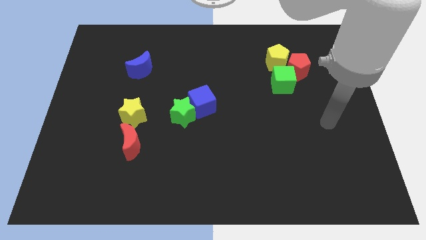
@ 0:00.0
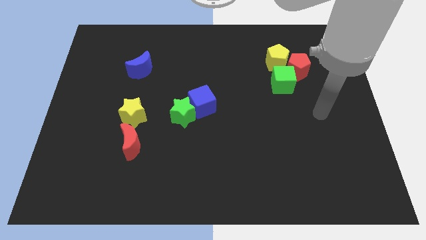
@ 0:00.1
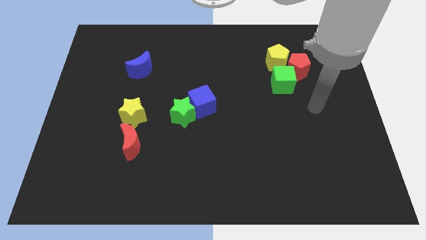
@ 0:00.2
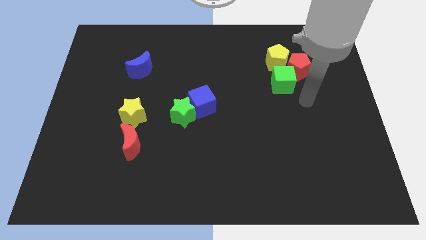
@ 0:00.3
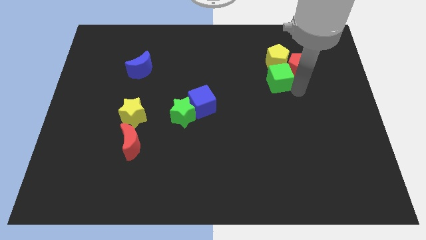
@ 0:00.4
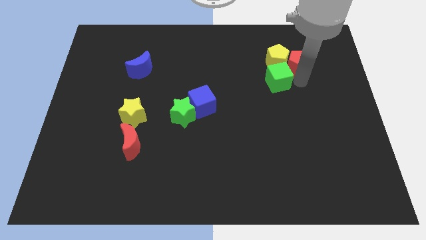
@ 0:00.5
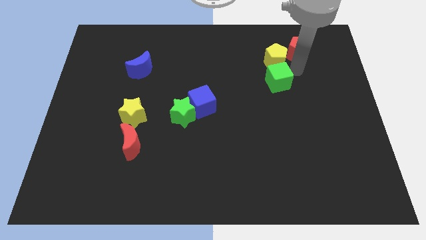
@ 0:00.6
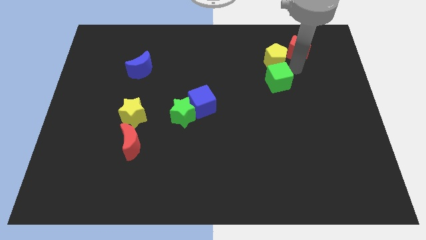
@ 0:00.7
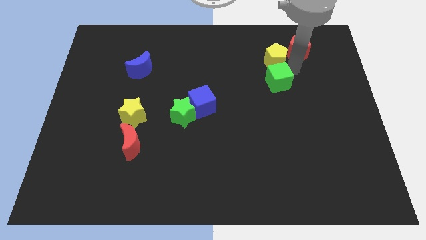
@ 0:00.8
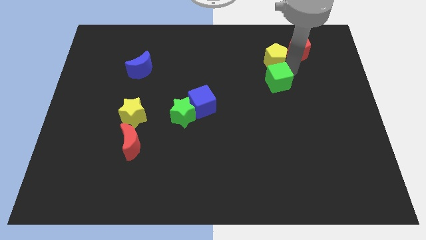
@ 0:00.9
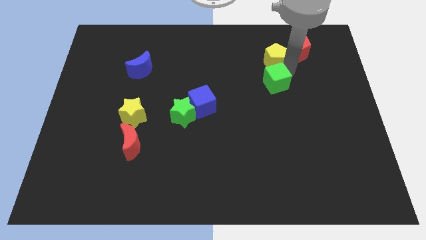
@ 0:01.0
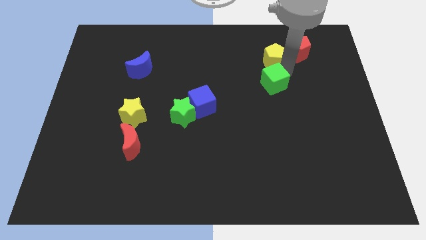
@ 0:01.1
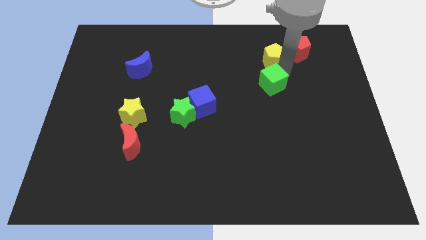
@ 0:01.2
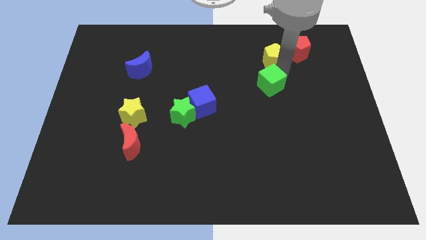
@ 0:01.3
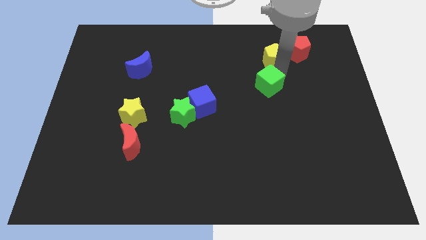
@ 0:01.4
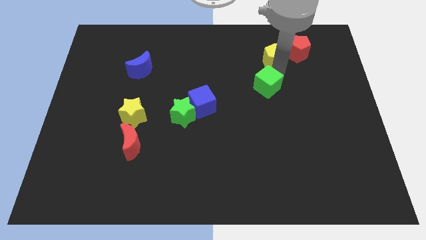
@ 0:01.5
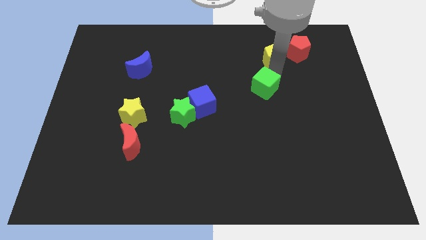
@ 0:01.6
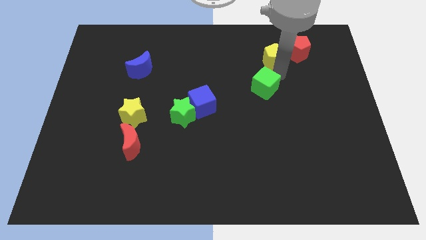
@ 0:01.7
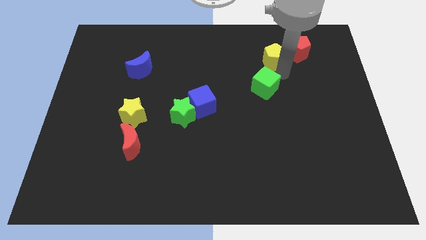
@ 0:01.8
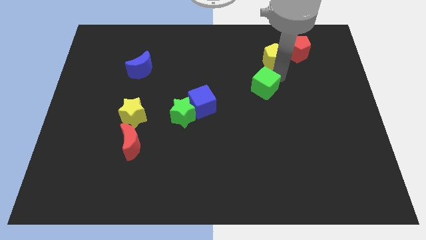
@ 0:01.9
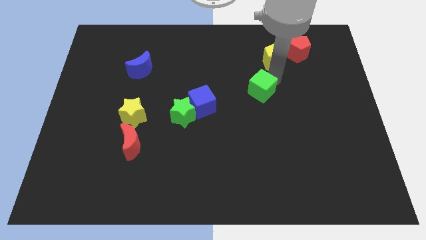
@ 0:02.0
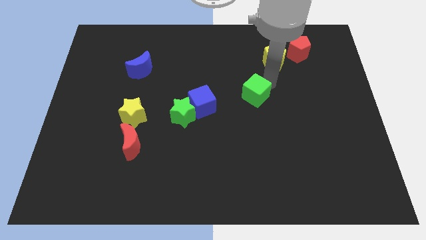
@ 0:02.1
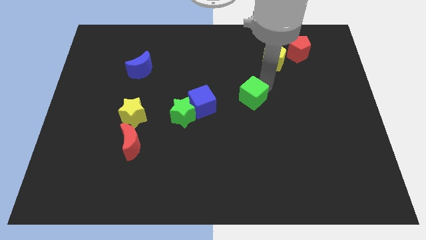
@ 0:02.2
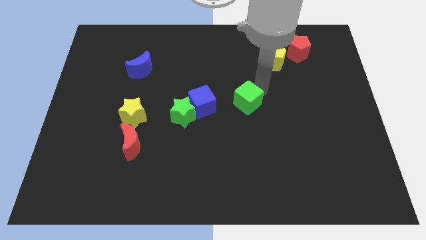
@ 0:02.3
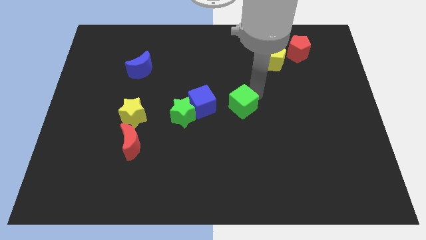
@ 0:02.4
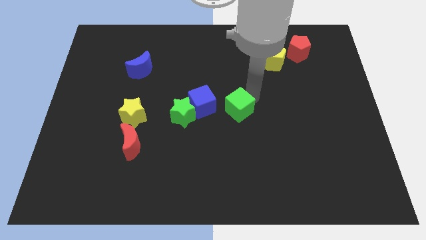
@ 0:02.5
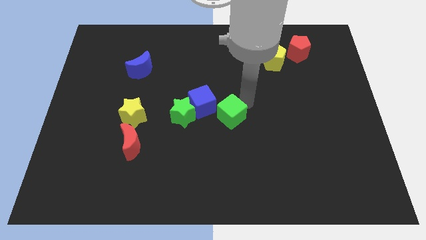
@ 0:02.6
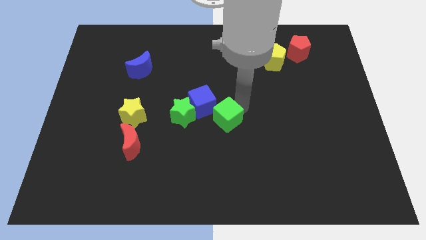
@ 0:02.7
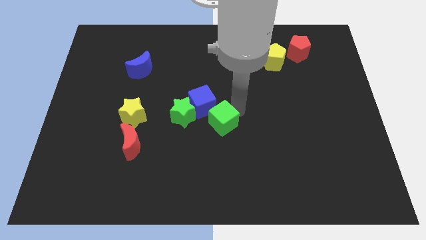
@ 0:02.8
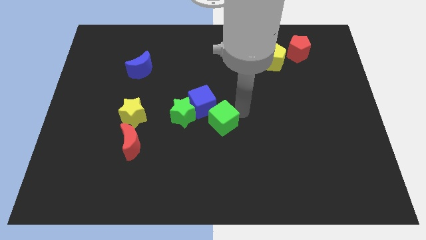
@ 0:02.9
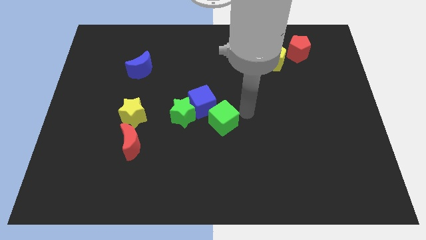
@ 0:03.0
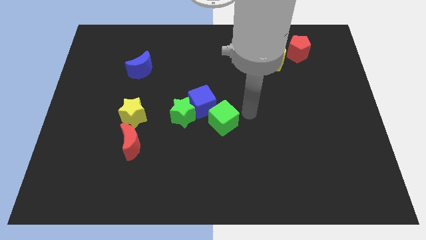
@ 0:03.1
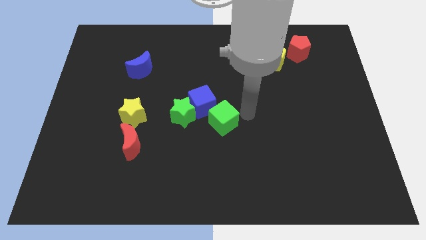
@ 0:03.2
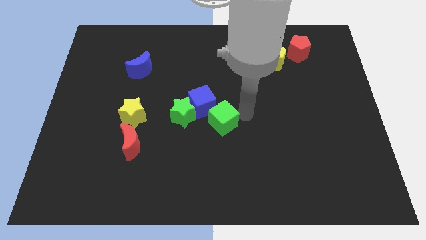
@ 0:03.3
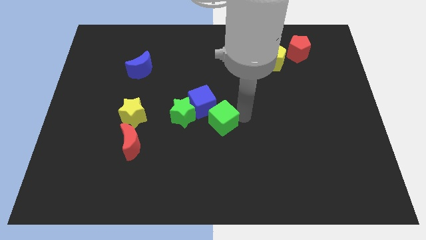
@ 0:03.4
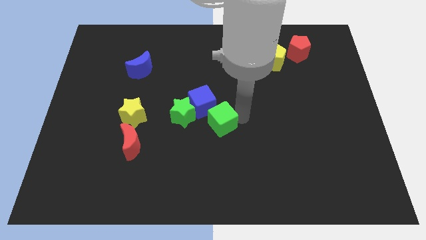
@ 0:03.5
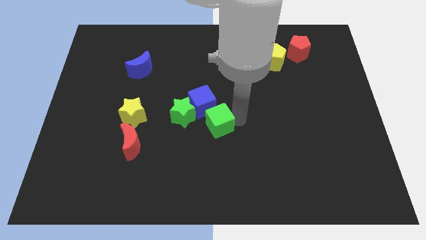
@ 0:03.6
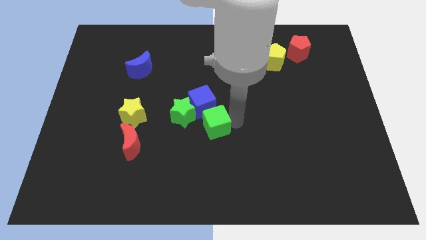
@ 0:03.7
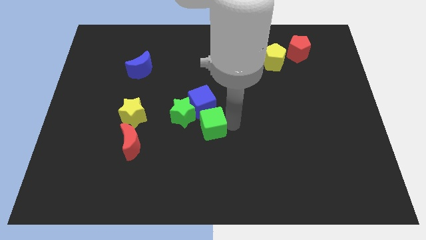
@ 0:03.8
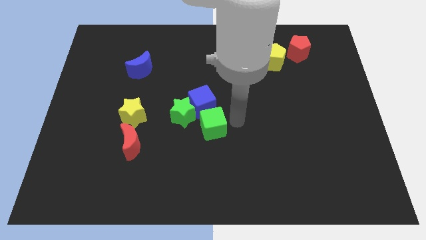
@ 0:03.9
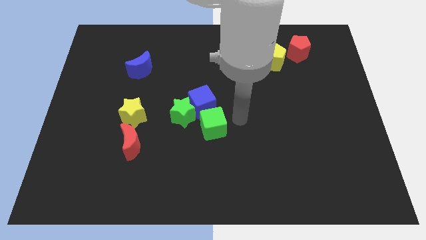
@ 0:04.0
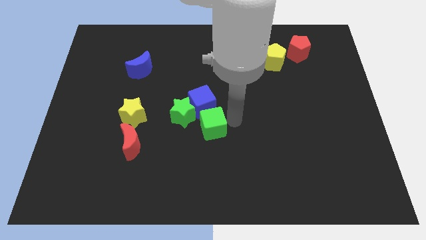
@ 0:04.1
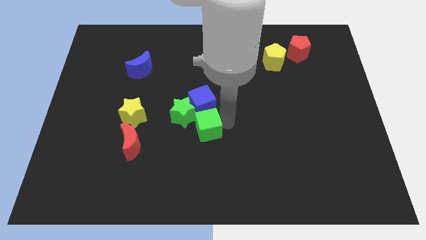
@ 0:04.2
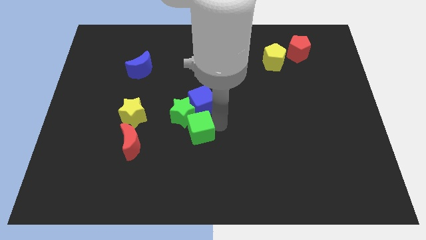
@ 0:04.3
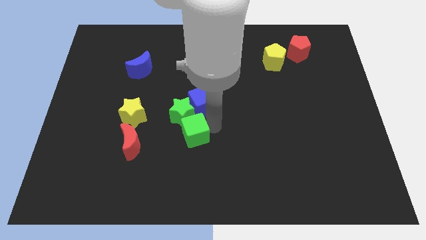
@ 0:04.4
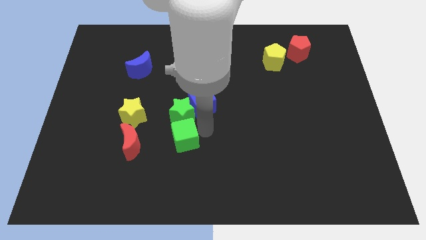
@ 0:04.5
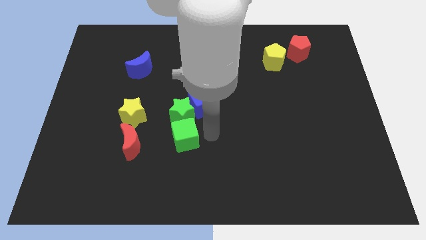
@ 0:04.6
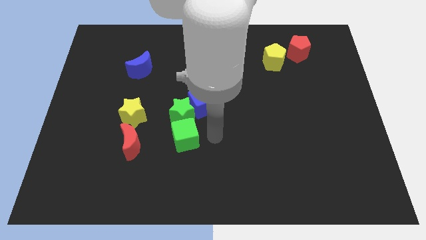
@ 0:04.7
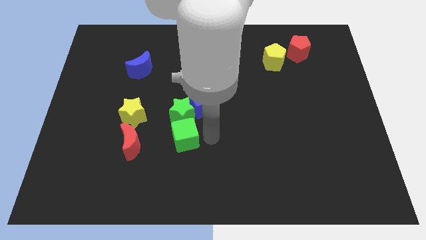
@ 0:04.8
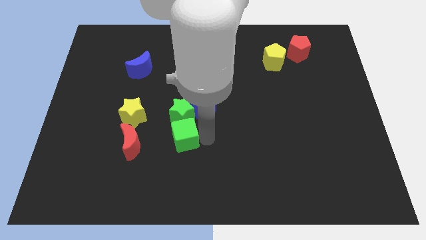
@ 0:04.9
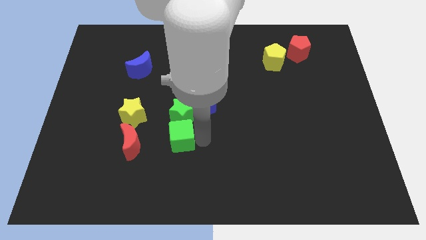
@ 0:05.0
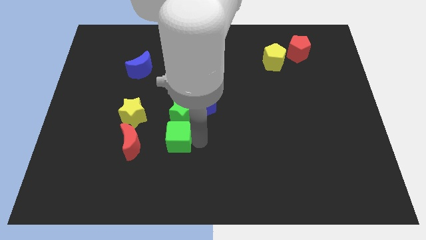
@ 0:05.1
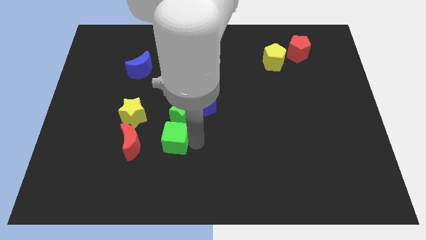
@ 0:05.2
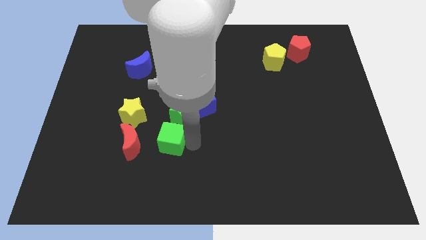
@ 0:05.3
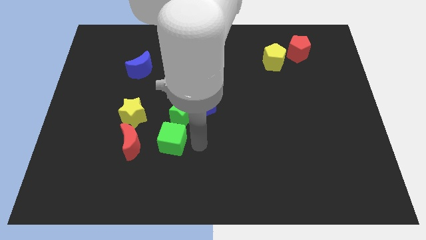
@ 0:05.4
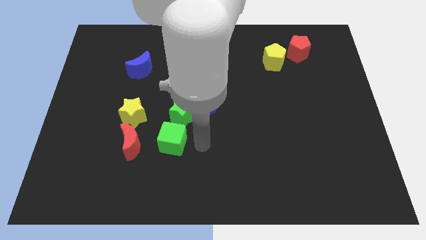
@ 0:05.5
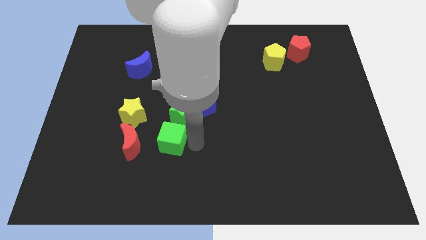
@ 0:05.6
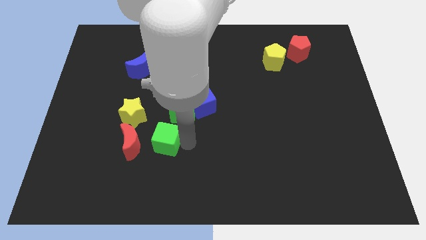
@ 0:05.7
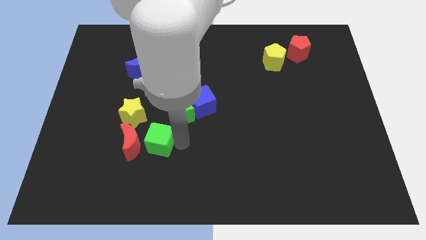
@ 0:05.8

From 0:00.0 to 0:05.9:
slide the green cube close to the red moon

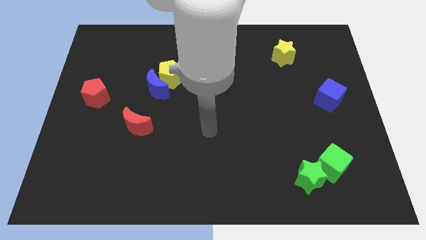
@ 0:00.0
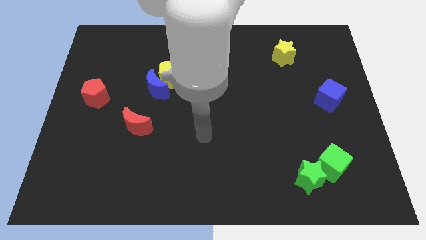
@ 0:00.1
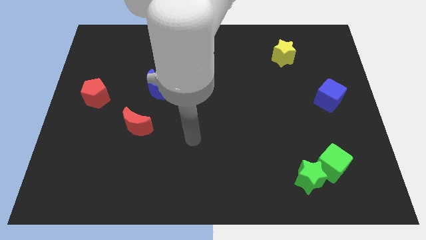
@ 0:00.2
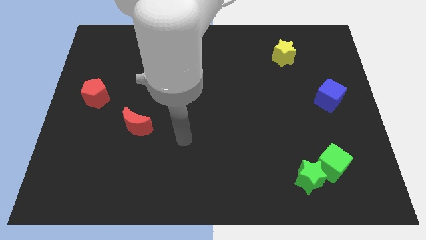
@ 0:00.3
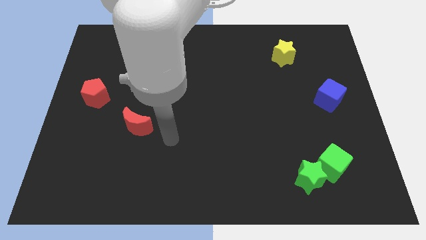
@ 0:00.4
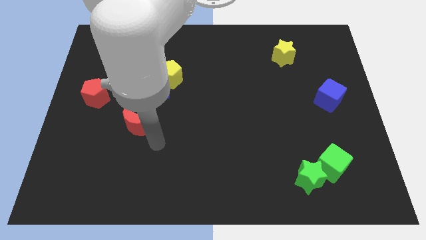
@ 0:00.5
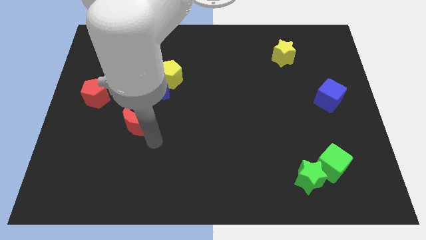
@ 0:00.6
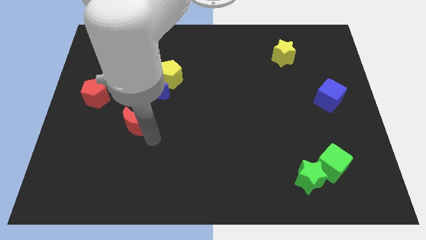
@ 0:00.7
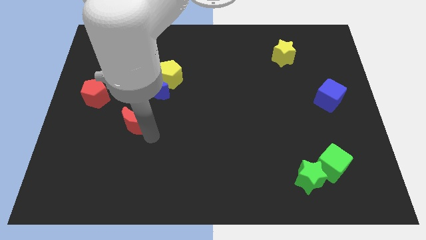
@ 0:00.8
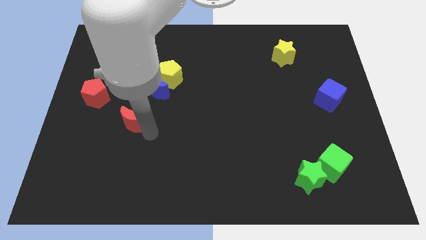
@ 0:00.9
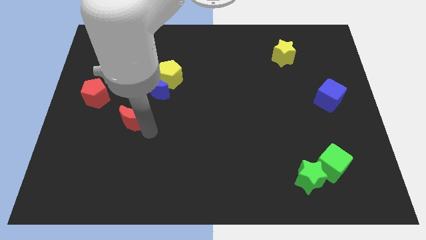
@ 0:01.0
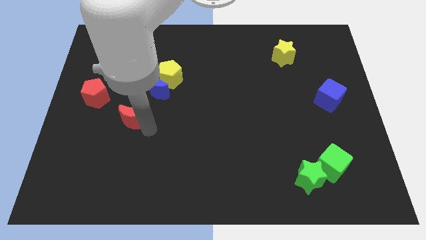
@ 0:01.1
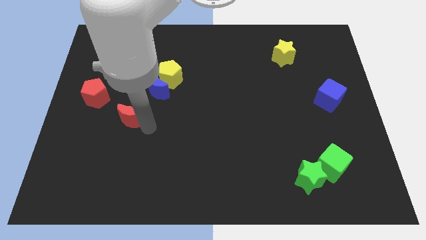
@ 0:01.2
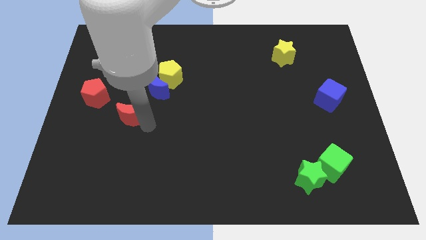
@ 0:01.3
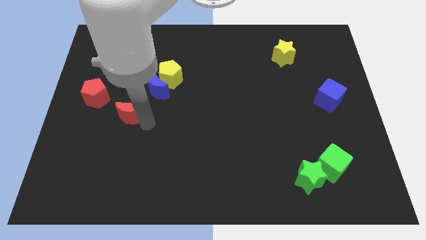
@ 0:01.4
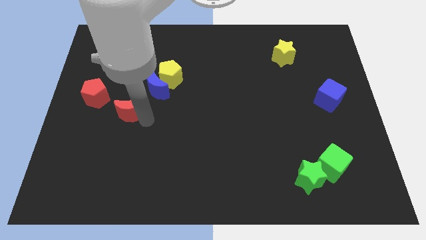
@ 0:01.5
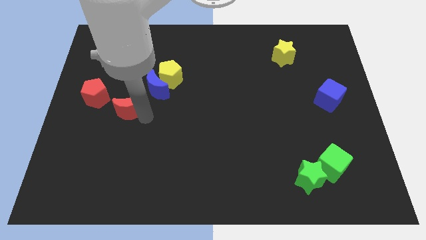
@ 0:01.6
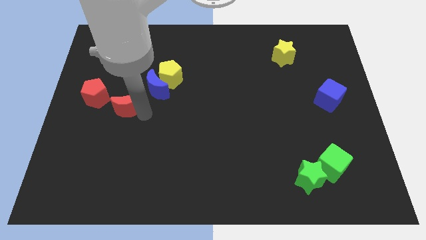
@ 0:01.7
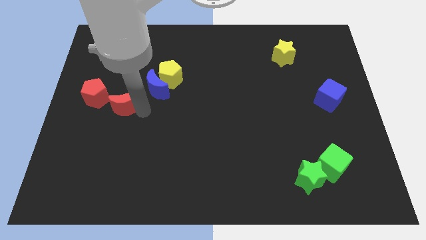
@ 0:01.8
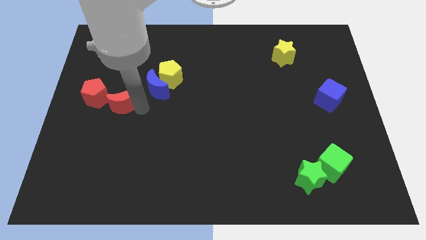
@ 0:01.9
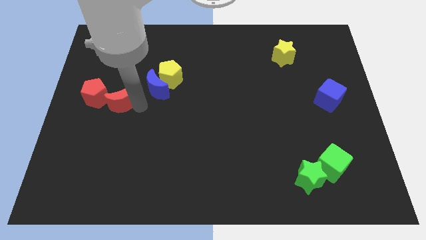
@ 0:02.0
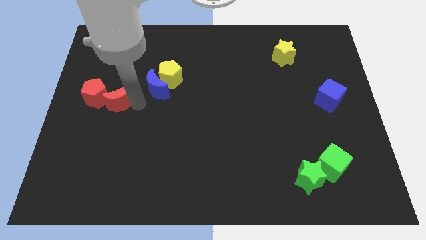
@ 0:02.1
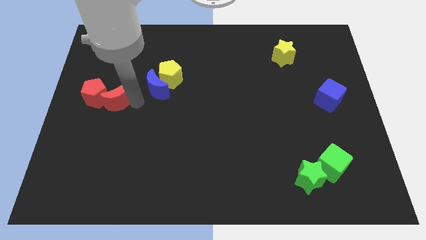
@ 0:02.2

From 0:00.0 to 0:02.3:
push the red moon towards the red pentagon
